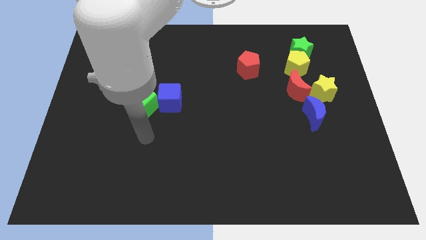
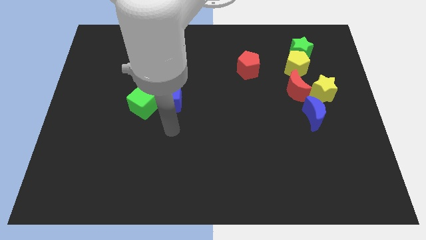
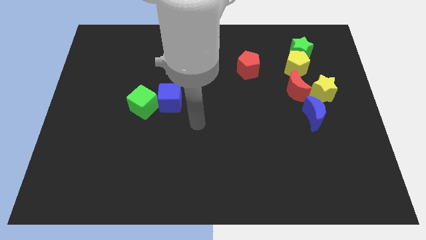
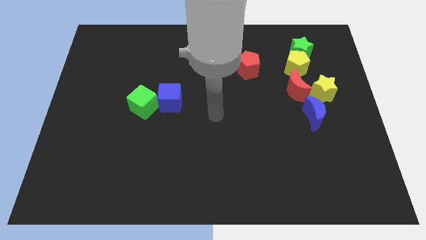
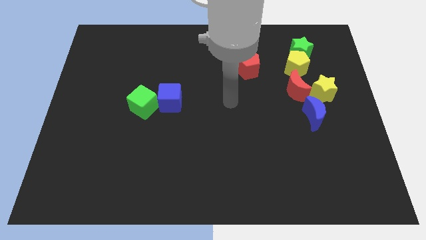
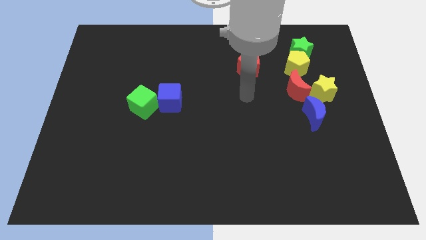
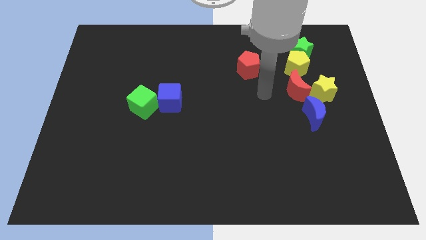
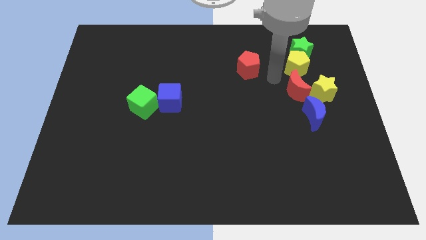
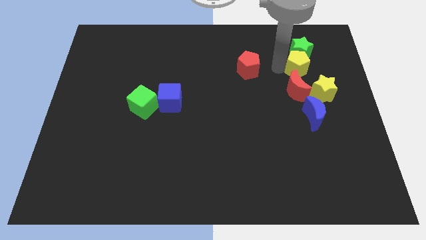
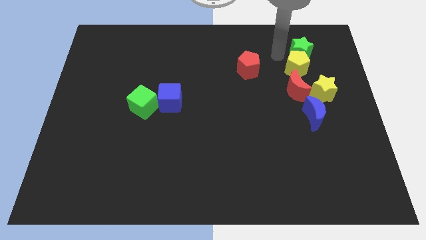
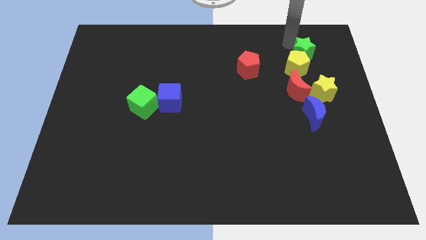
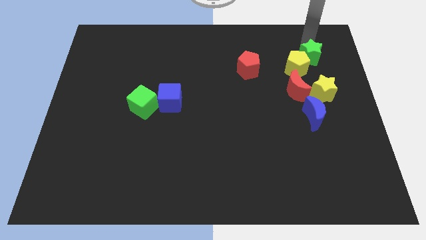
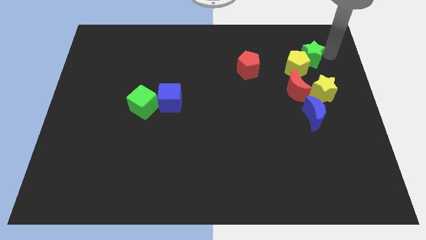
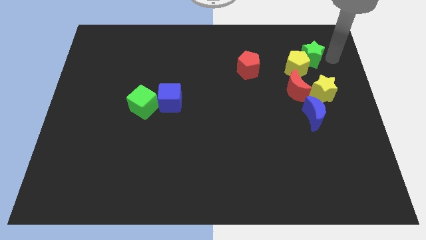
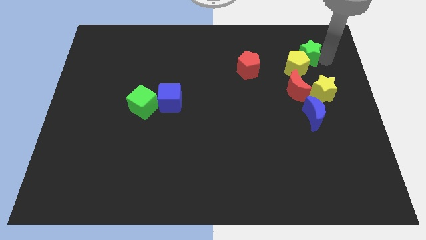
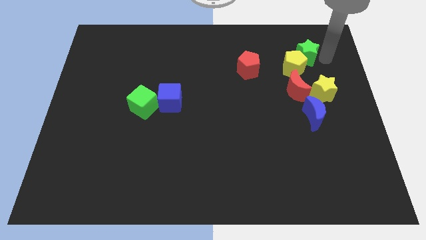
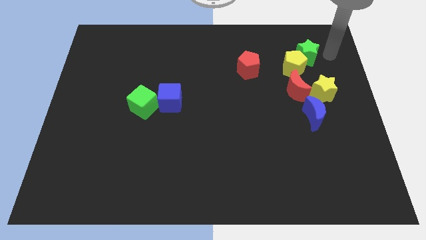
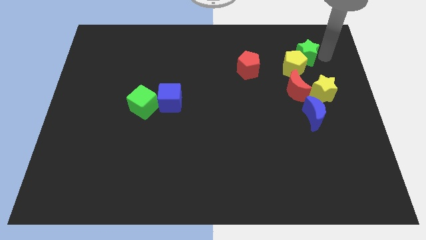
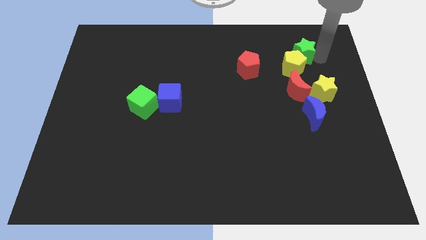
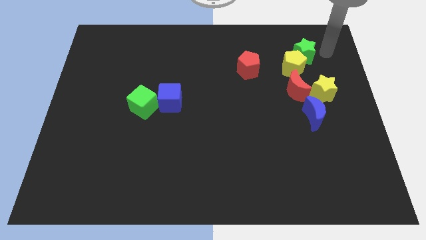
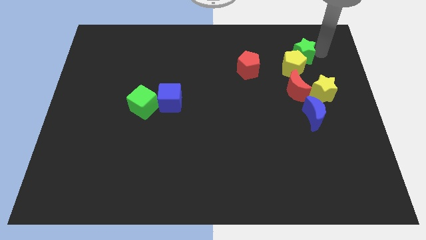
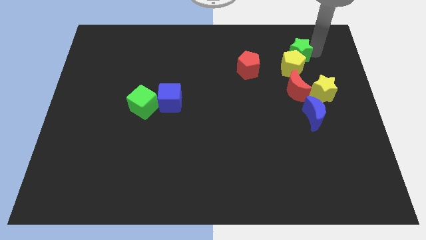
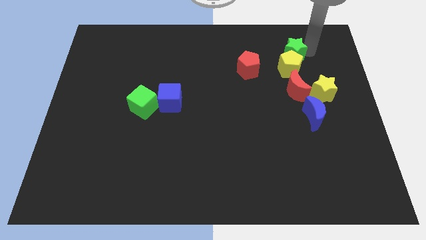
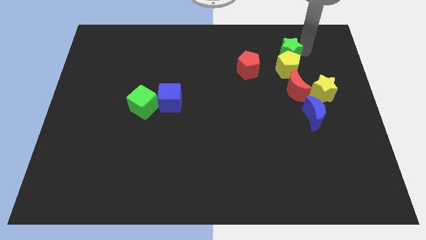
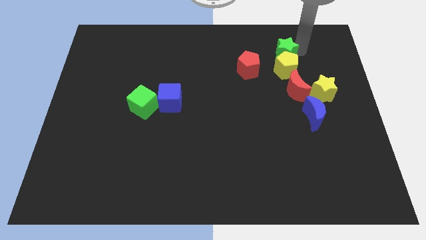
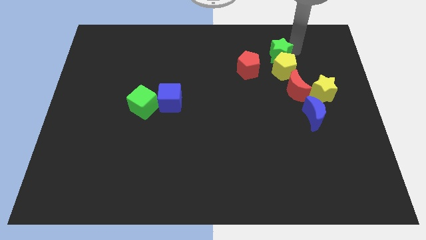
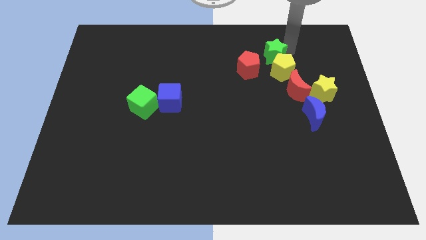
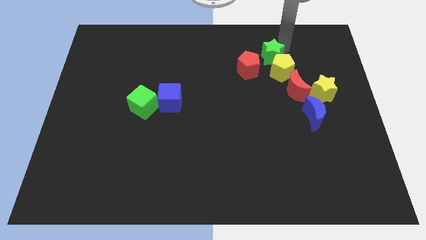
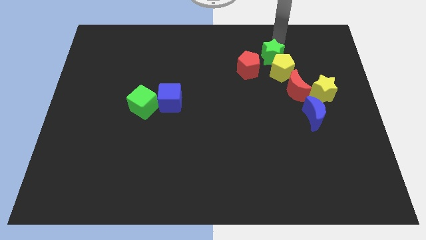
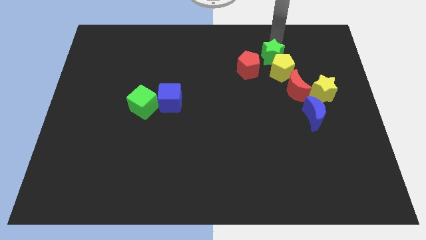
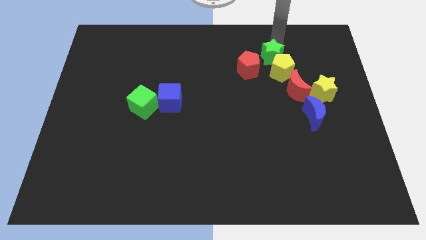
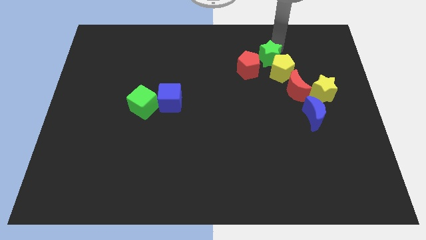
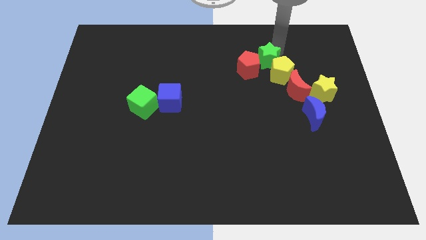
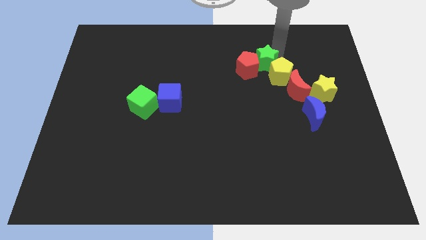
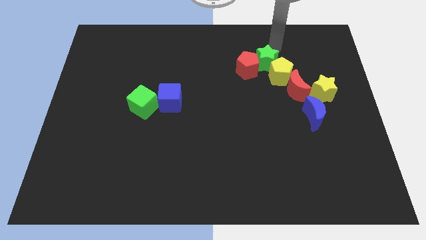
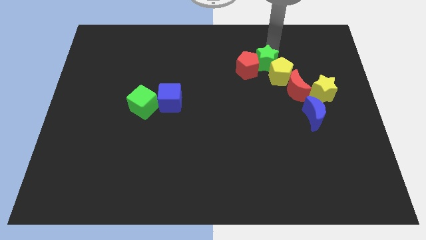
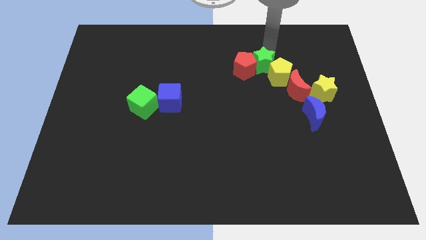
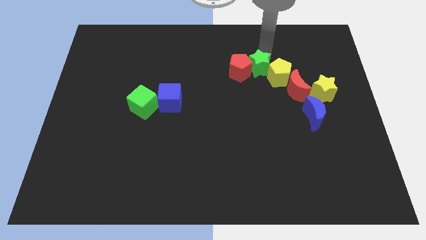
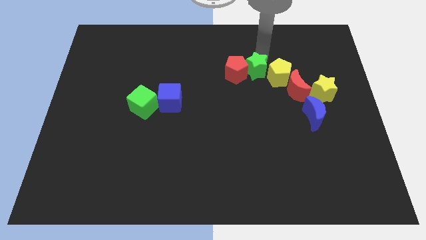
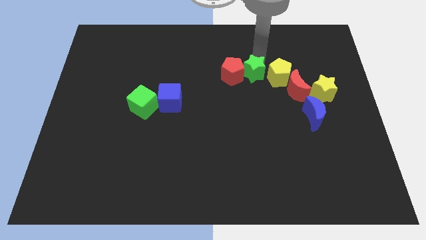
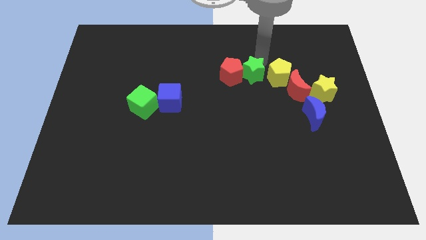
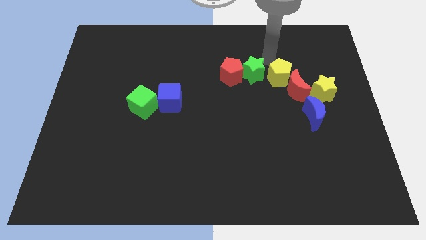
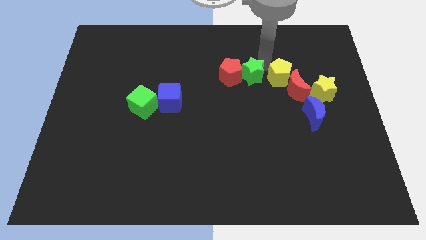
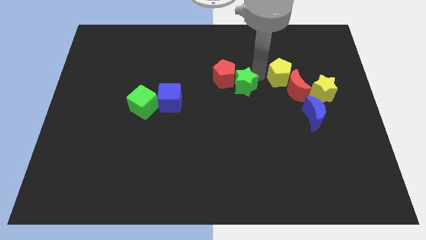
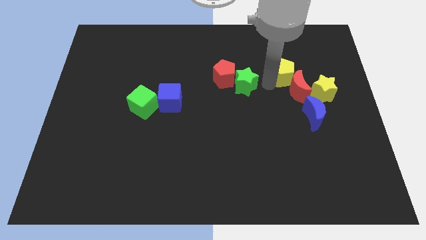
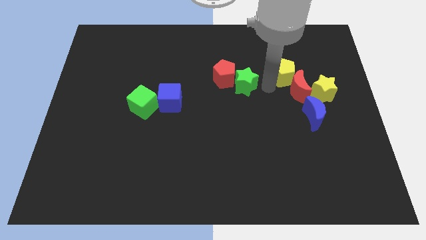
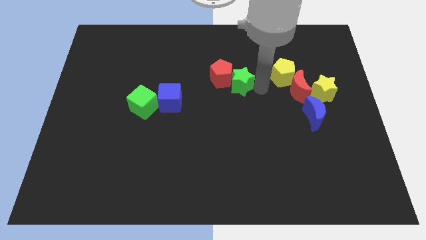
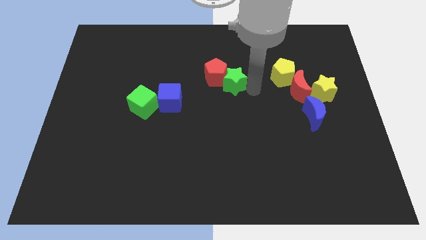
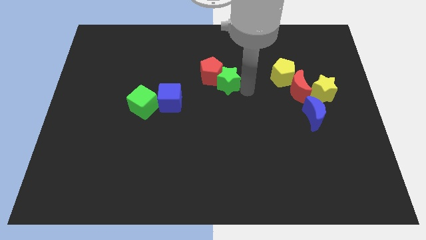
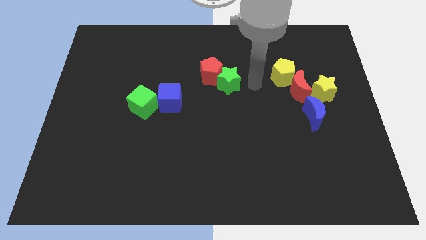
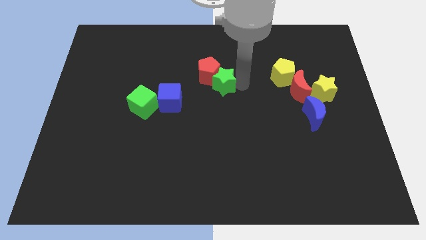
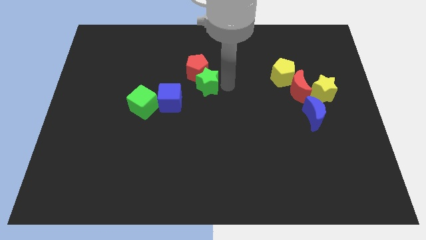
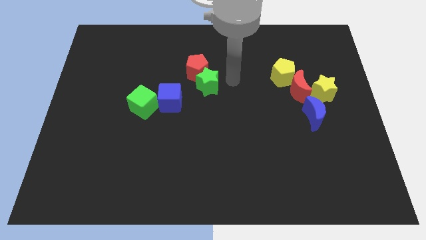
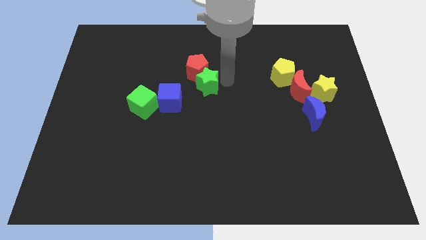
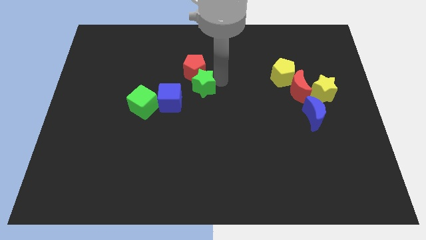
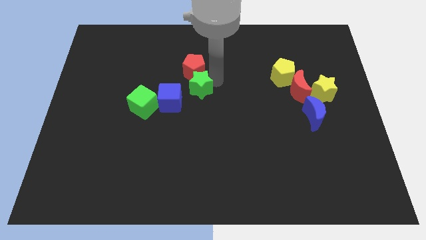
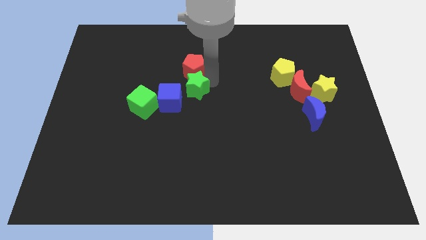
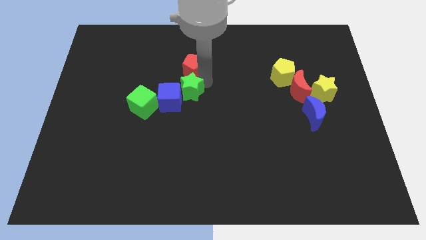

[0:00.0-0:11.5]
push the green star close to the blue cube
